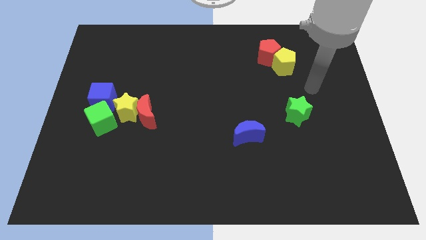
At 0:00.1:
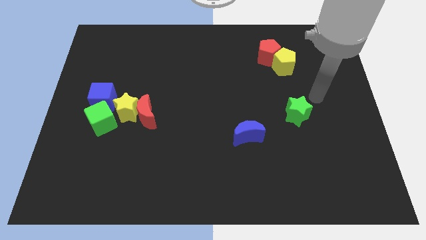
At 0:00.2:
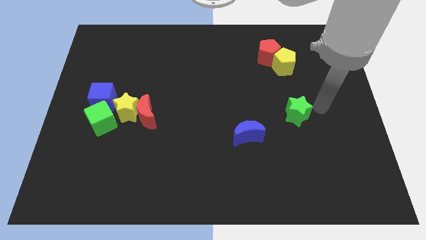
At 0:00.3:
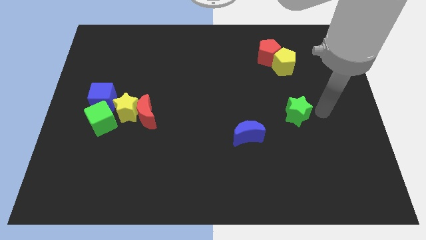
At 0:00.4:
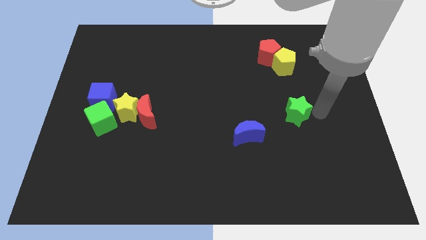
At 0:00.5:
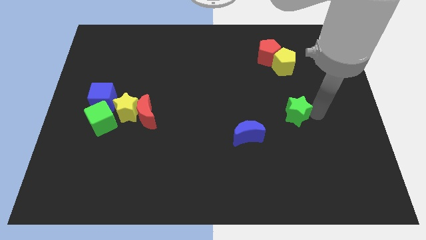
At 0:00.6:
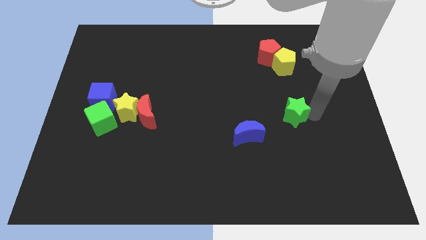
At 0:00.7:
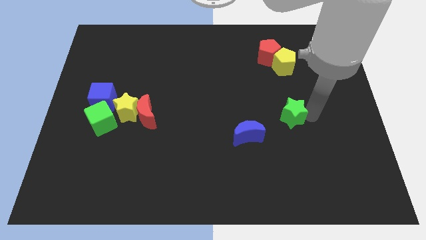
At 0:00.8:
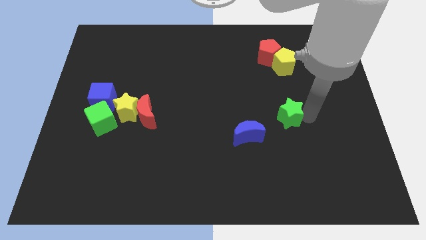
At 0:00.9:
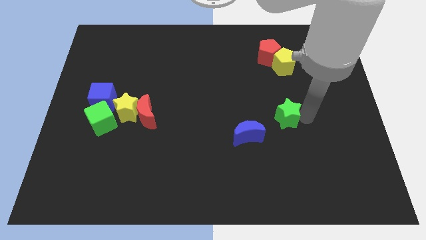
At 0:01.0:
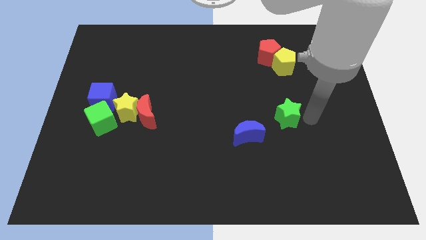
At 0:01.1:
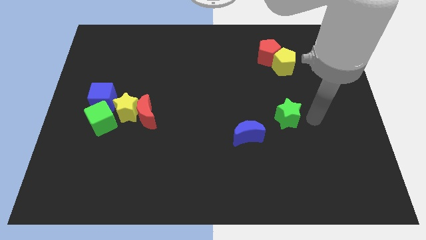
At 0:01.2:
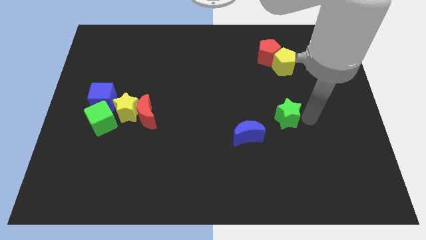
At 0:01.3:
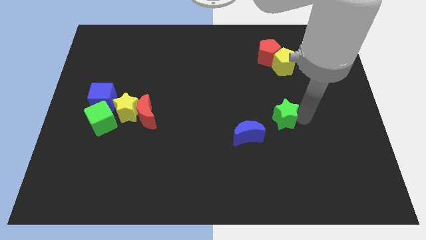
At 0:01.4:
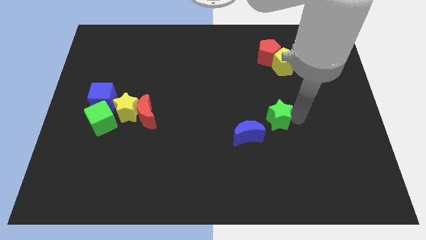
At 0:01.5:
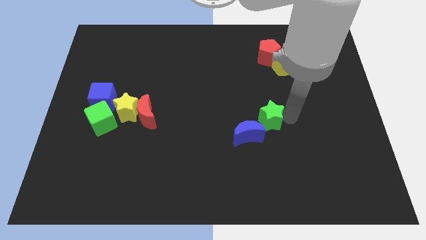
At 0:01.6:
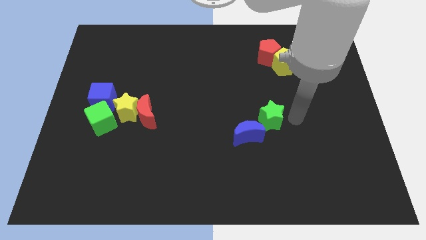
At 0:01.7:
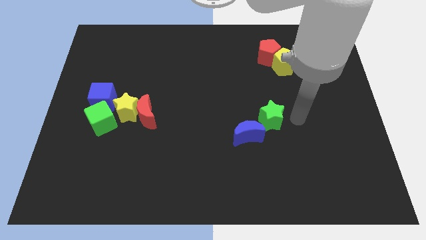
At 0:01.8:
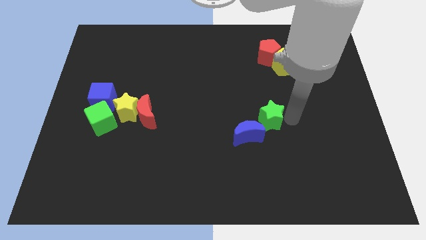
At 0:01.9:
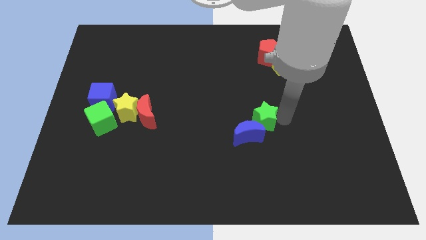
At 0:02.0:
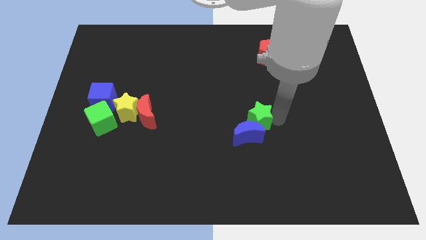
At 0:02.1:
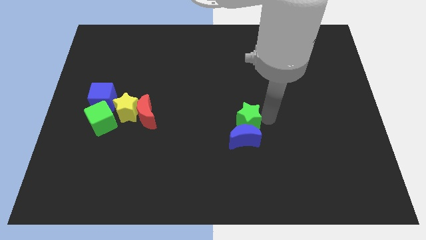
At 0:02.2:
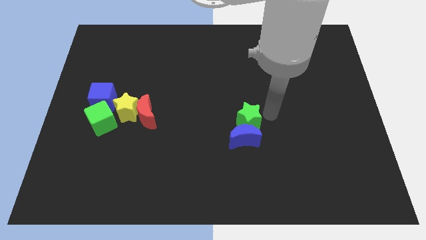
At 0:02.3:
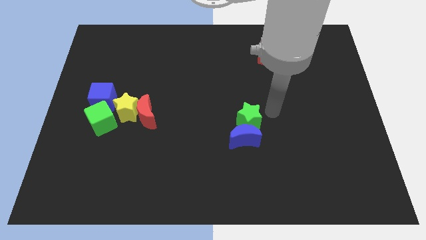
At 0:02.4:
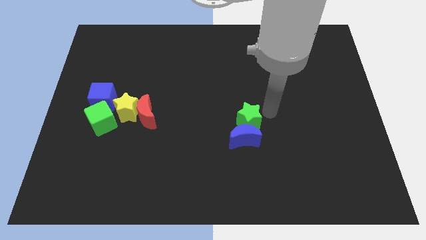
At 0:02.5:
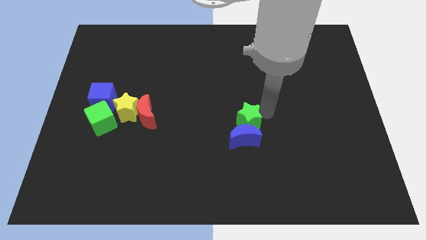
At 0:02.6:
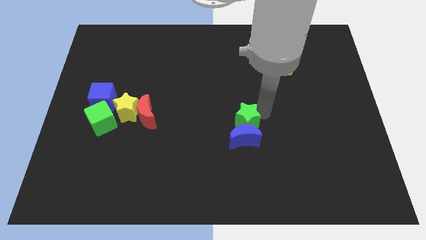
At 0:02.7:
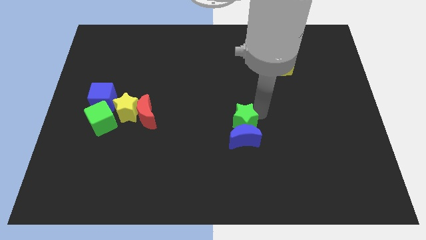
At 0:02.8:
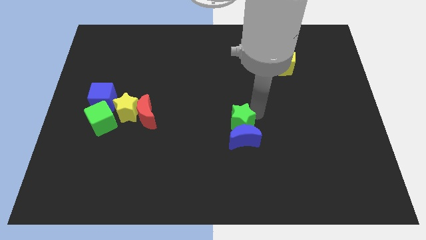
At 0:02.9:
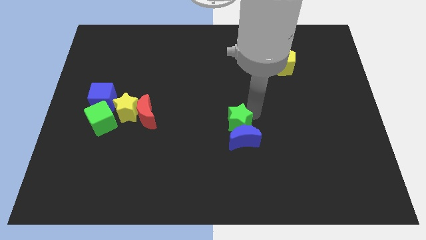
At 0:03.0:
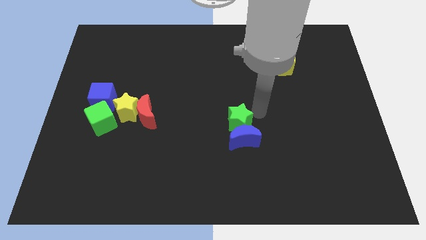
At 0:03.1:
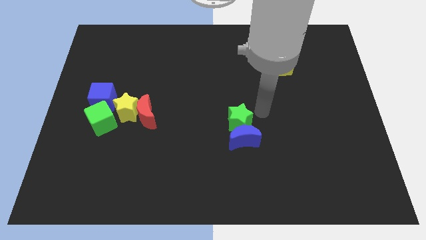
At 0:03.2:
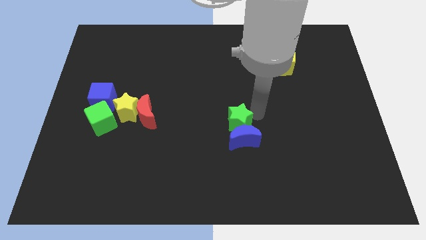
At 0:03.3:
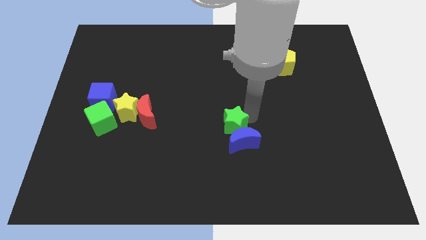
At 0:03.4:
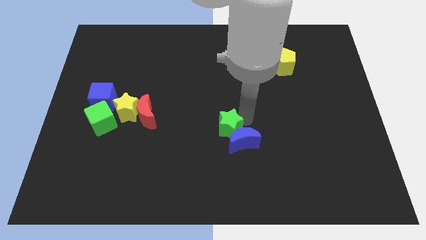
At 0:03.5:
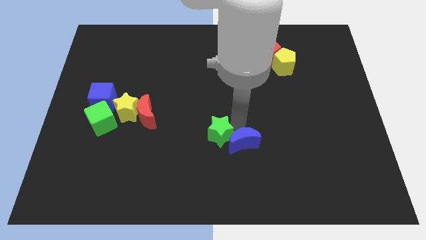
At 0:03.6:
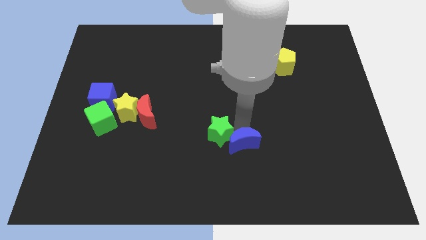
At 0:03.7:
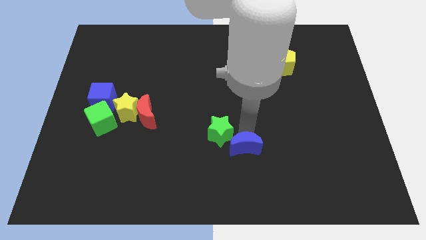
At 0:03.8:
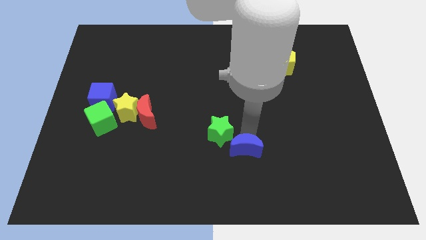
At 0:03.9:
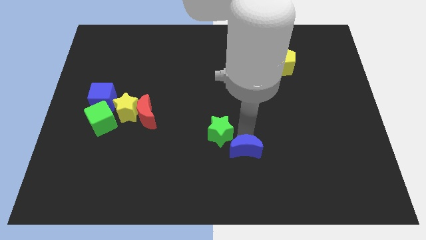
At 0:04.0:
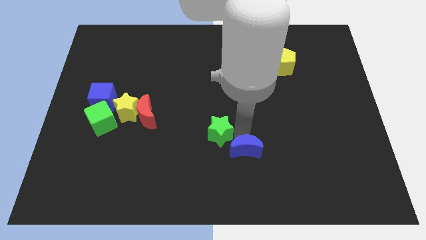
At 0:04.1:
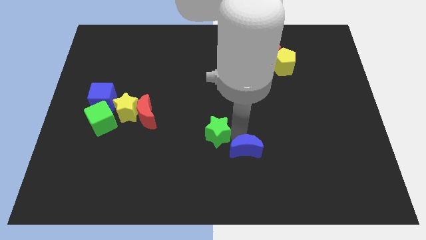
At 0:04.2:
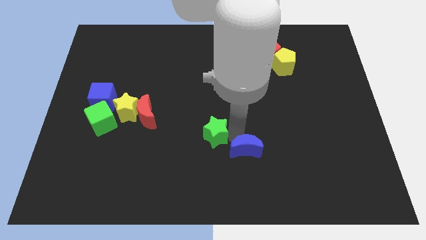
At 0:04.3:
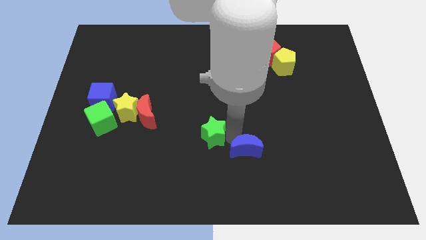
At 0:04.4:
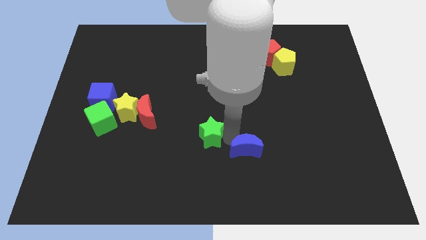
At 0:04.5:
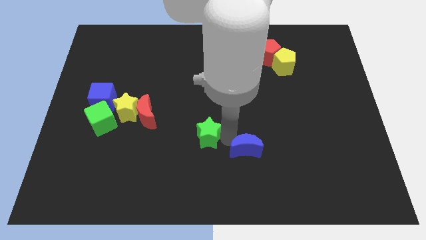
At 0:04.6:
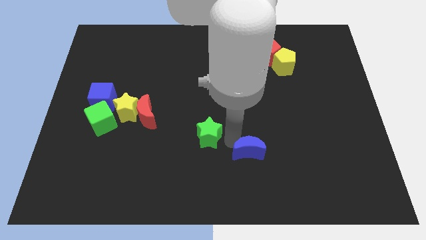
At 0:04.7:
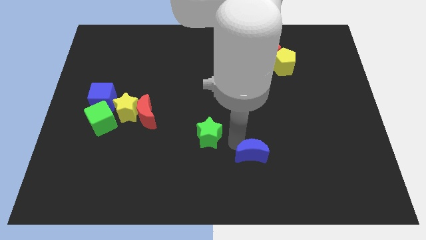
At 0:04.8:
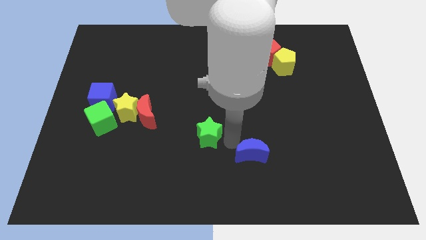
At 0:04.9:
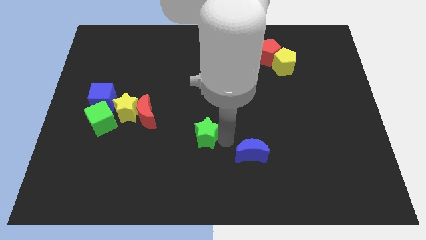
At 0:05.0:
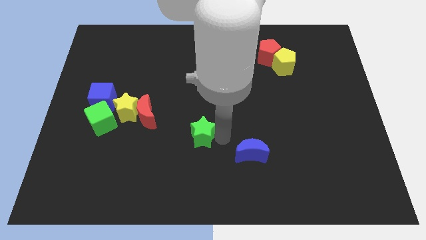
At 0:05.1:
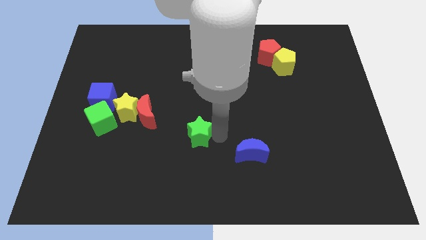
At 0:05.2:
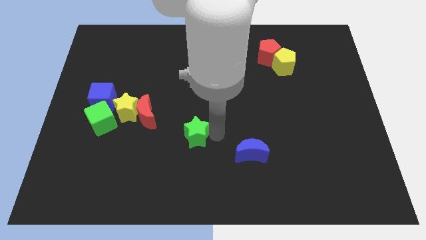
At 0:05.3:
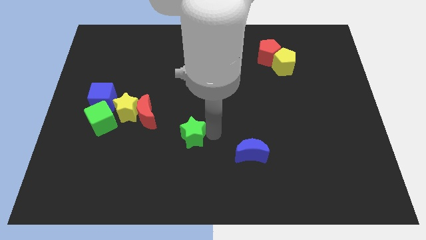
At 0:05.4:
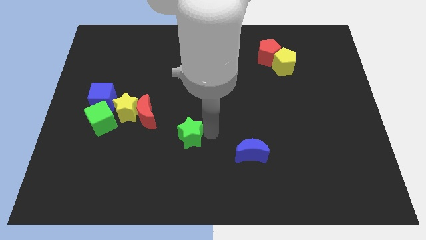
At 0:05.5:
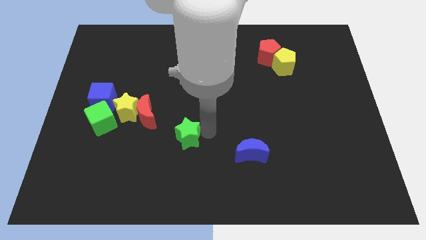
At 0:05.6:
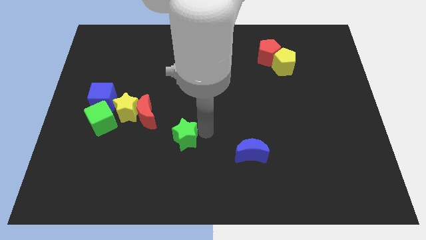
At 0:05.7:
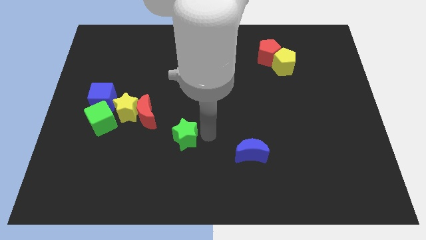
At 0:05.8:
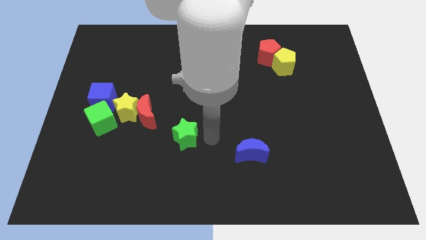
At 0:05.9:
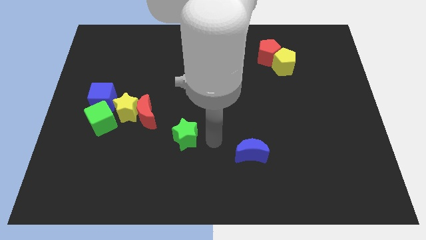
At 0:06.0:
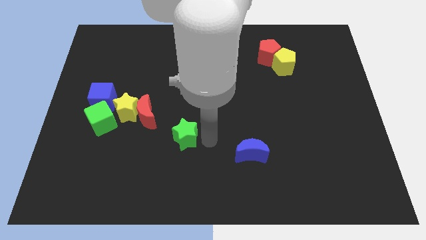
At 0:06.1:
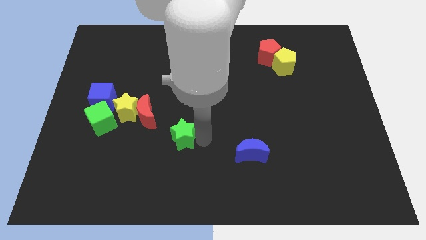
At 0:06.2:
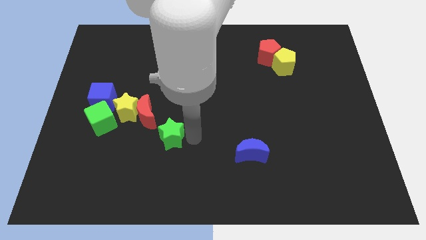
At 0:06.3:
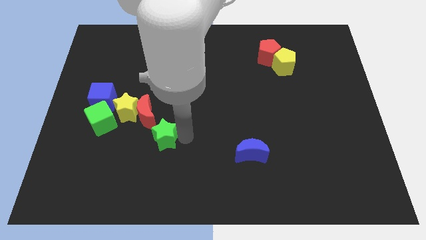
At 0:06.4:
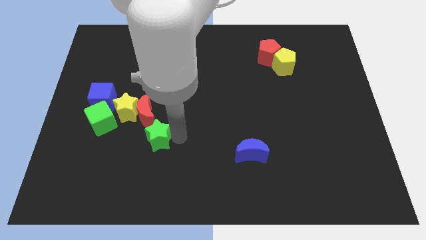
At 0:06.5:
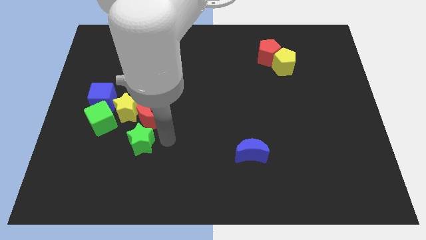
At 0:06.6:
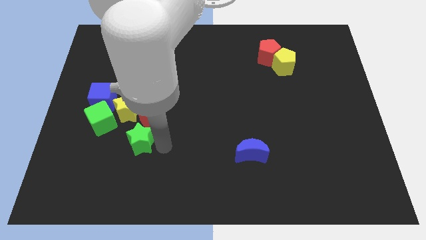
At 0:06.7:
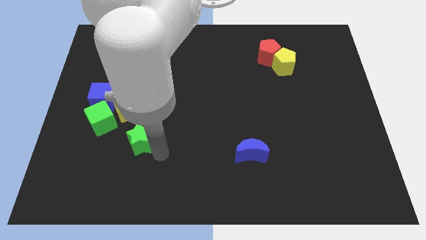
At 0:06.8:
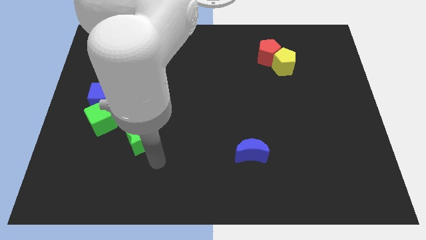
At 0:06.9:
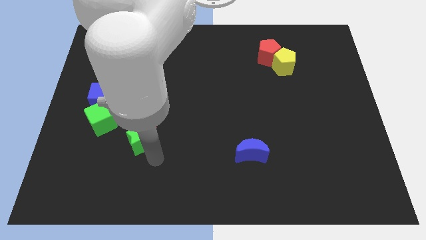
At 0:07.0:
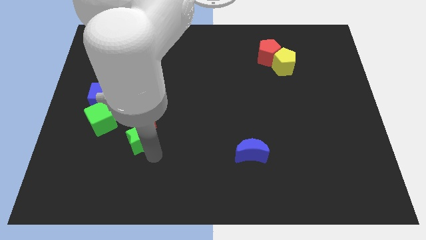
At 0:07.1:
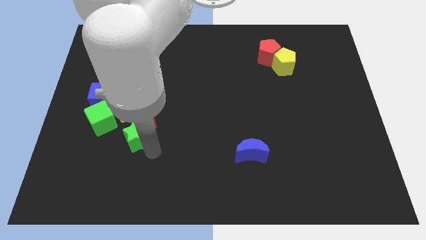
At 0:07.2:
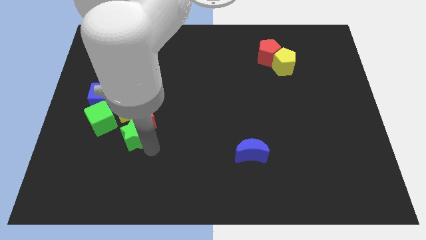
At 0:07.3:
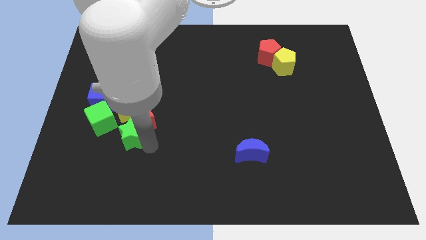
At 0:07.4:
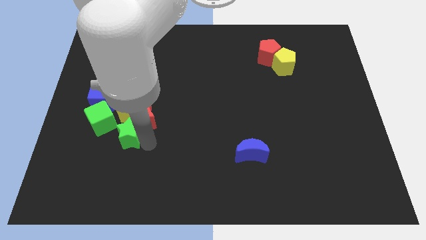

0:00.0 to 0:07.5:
put the green star diagonally down and to the right of the blue cube
